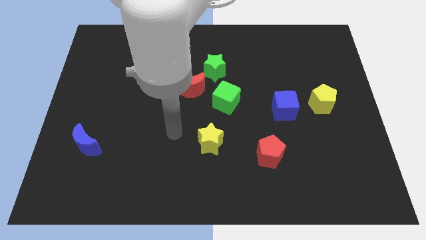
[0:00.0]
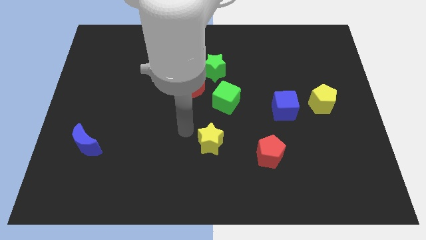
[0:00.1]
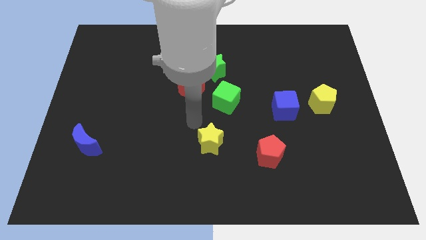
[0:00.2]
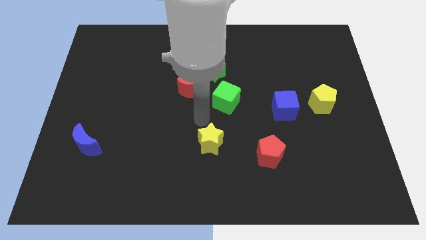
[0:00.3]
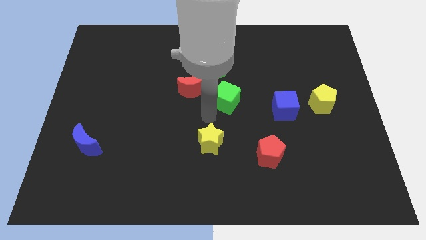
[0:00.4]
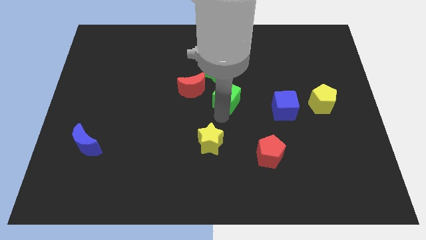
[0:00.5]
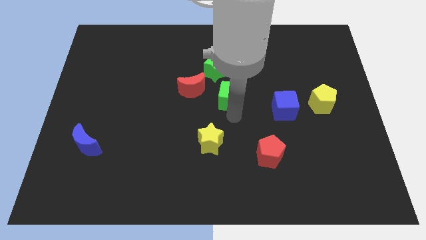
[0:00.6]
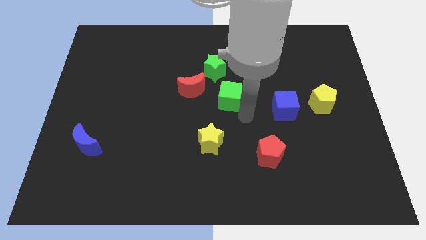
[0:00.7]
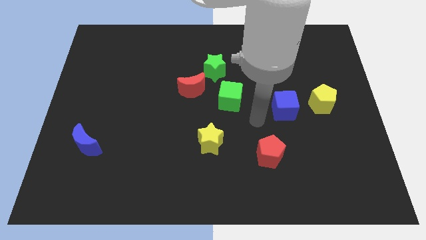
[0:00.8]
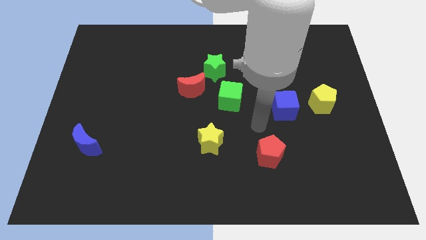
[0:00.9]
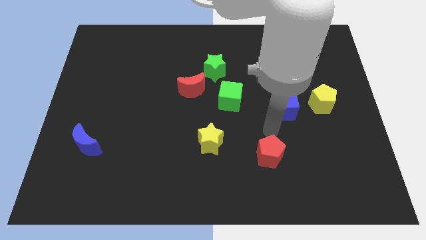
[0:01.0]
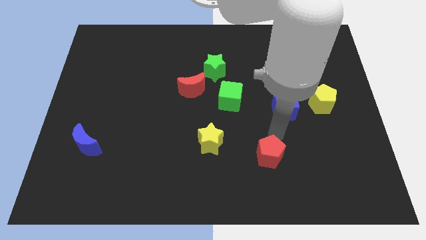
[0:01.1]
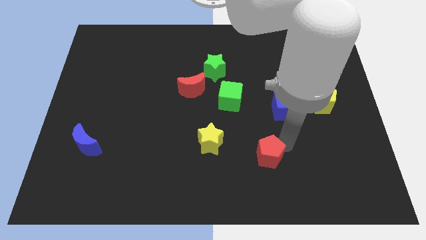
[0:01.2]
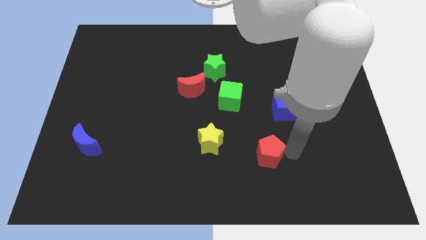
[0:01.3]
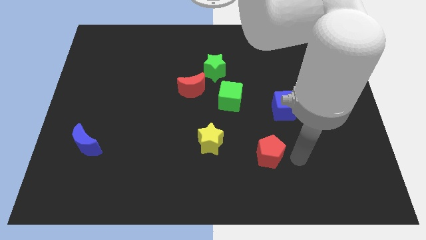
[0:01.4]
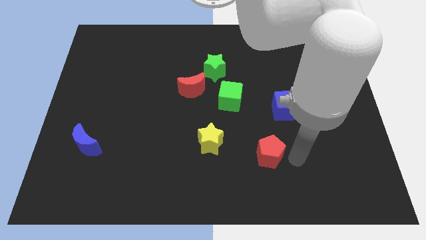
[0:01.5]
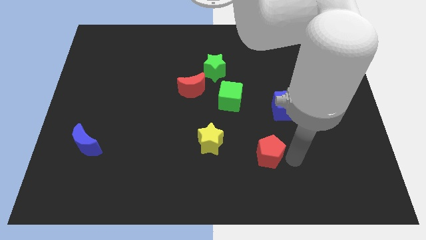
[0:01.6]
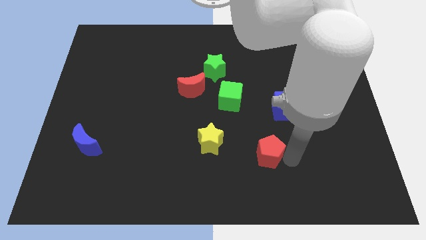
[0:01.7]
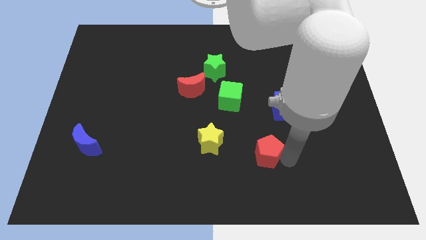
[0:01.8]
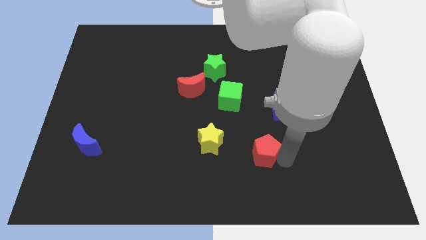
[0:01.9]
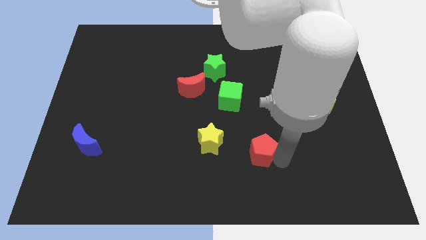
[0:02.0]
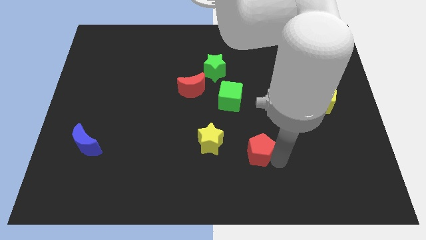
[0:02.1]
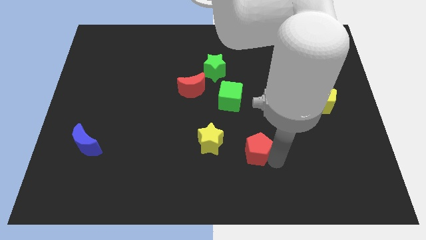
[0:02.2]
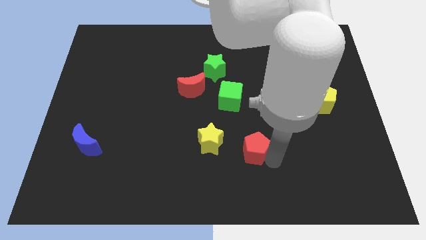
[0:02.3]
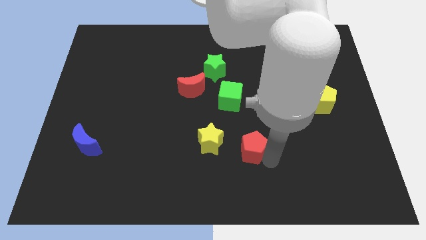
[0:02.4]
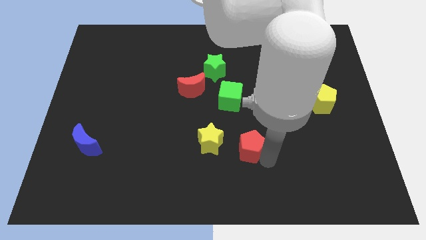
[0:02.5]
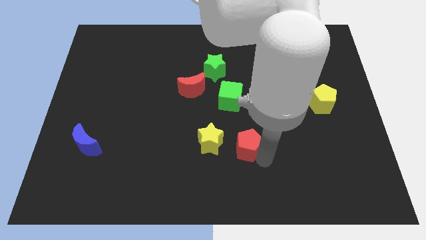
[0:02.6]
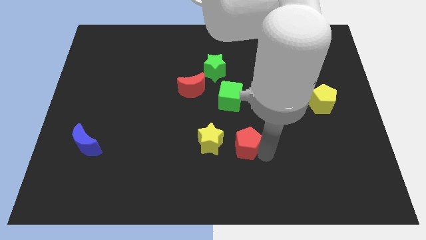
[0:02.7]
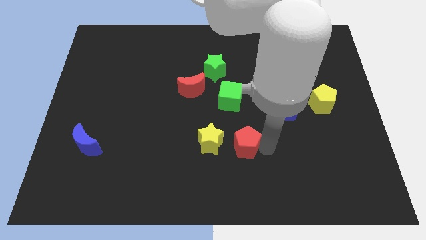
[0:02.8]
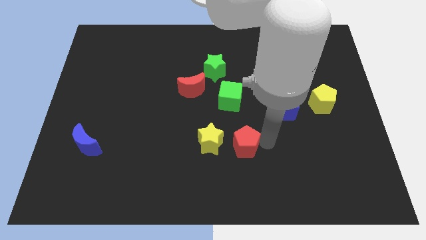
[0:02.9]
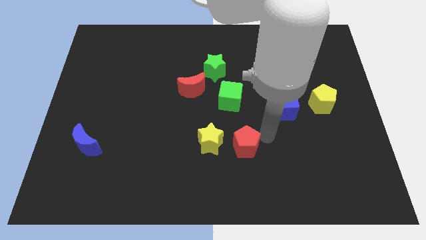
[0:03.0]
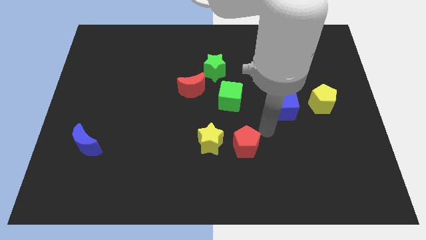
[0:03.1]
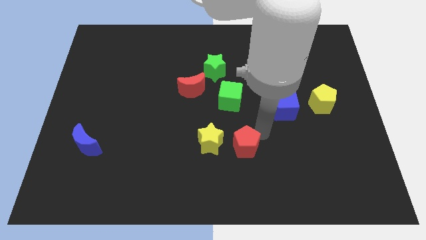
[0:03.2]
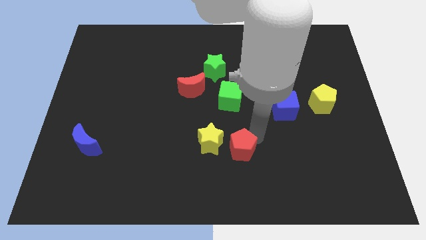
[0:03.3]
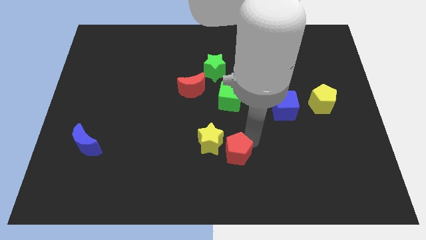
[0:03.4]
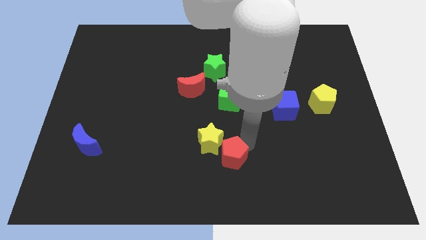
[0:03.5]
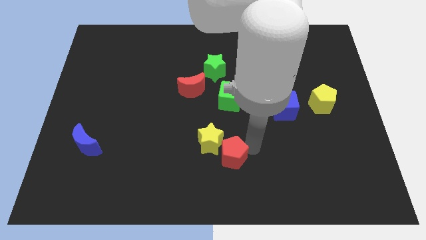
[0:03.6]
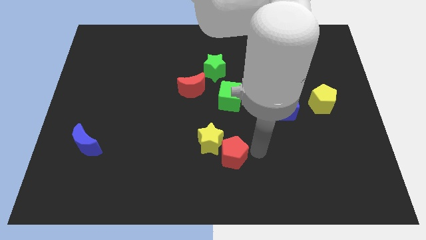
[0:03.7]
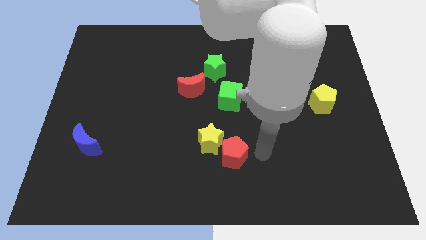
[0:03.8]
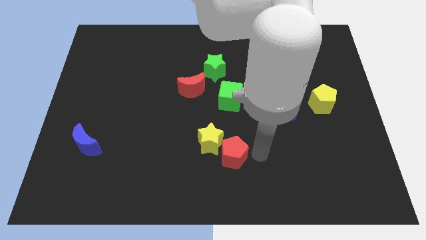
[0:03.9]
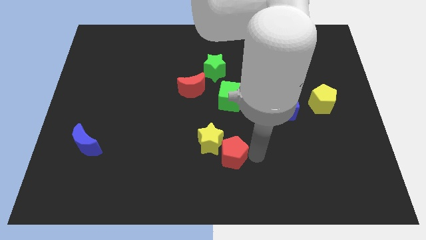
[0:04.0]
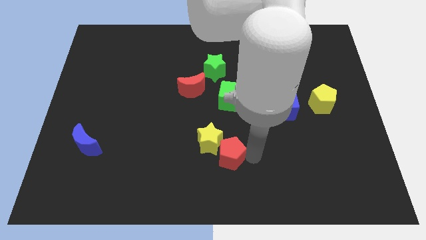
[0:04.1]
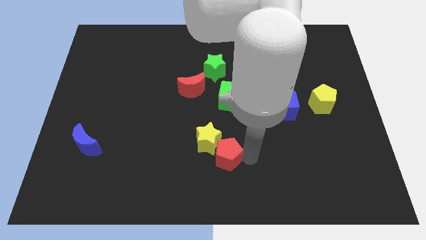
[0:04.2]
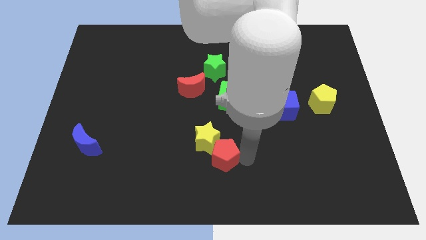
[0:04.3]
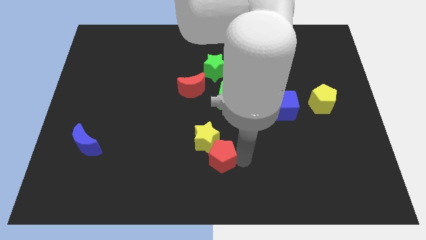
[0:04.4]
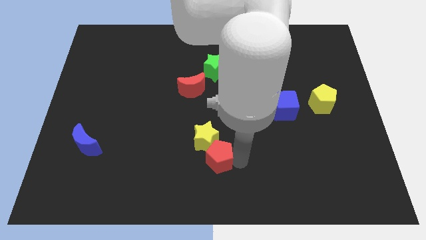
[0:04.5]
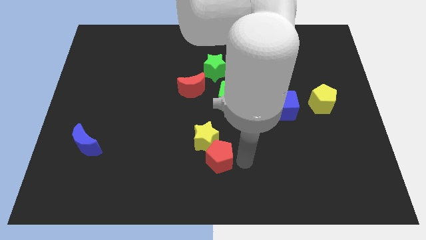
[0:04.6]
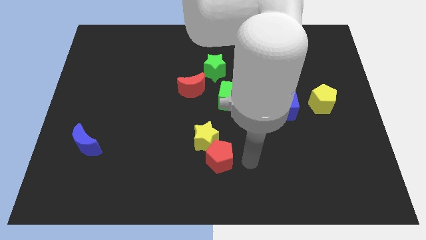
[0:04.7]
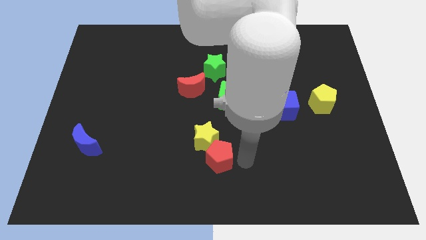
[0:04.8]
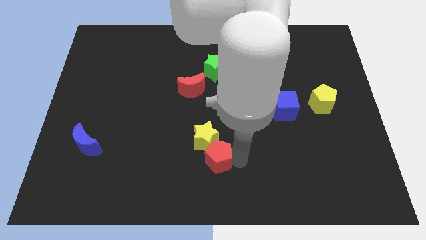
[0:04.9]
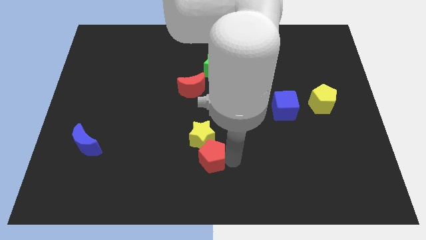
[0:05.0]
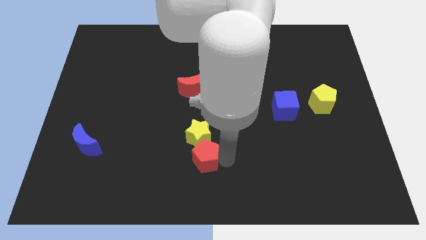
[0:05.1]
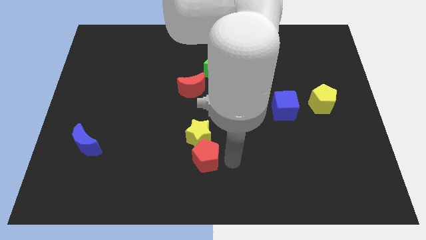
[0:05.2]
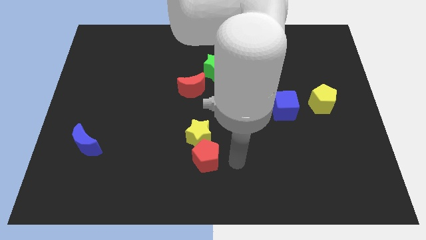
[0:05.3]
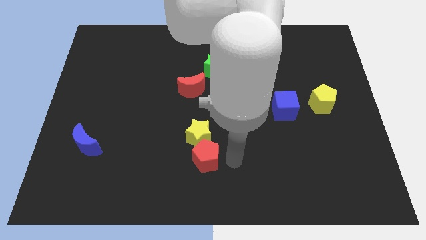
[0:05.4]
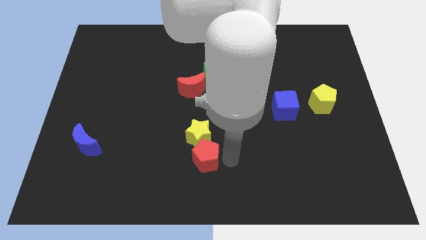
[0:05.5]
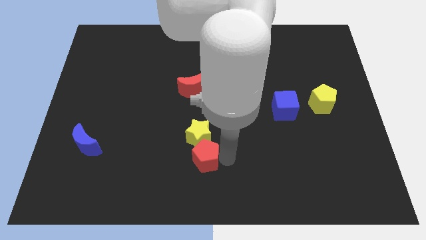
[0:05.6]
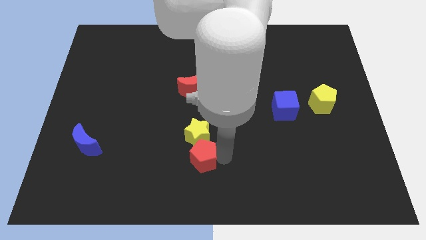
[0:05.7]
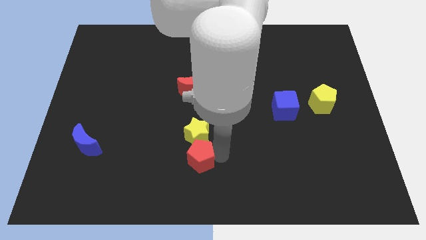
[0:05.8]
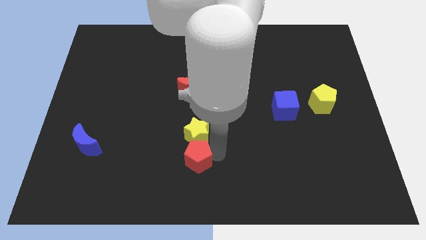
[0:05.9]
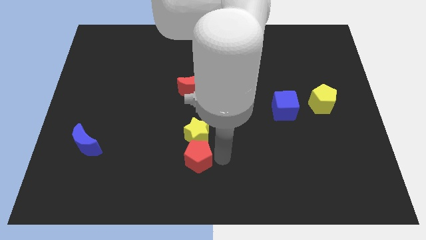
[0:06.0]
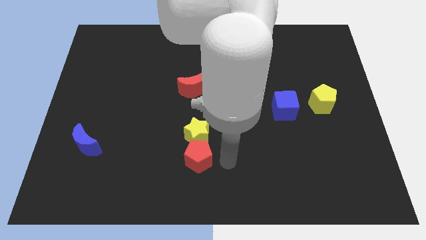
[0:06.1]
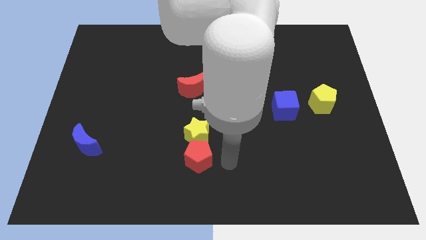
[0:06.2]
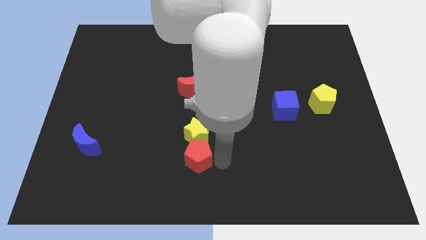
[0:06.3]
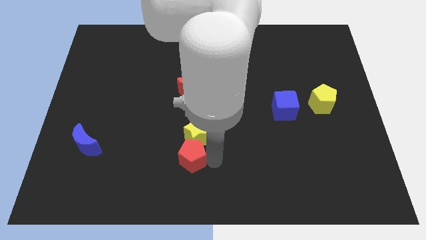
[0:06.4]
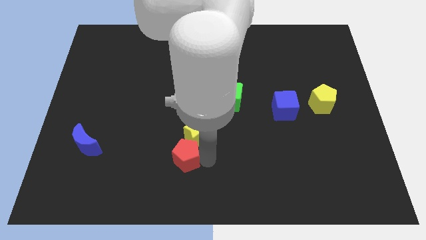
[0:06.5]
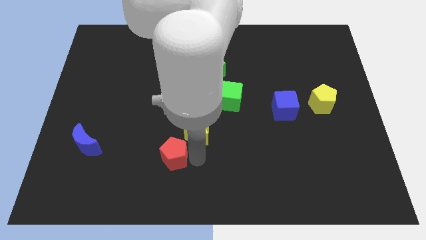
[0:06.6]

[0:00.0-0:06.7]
push the red pentagon to the left

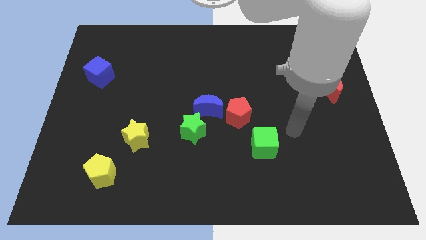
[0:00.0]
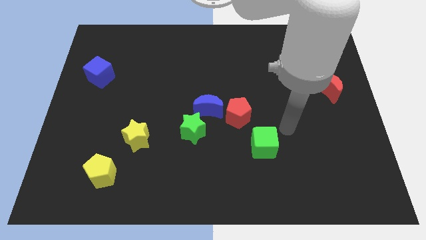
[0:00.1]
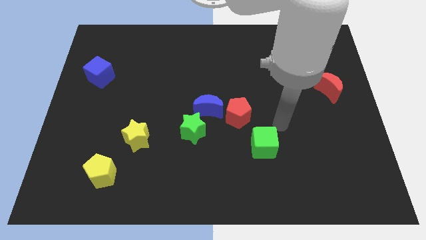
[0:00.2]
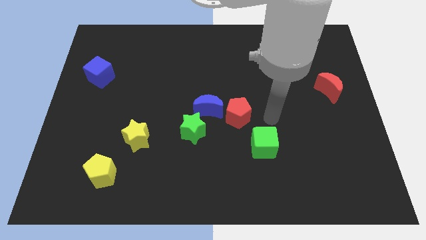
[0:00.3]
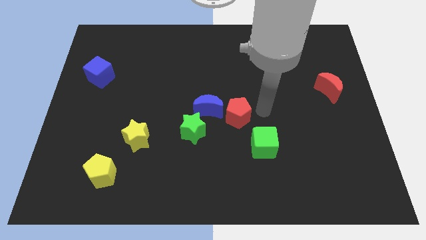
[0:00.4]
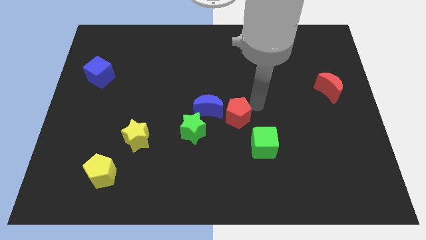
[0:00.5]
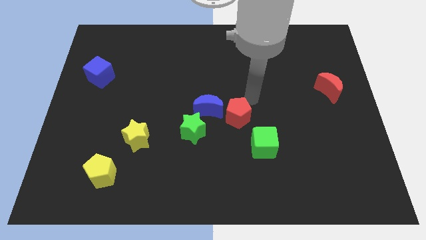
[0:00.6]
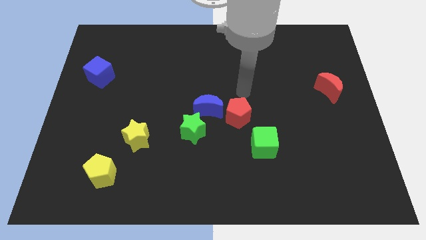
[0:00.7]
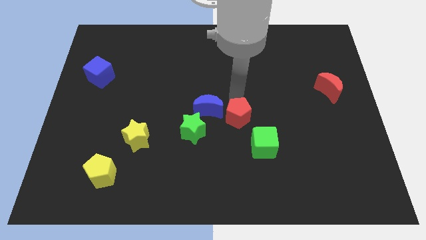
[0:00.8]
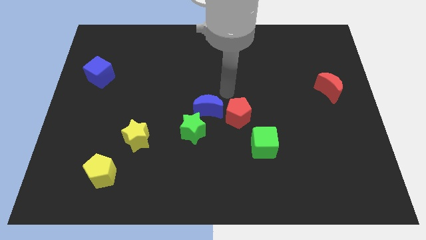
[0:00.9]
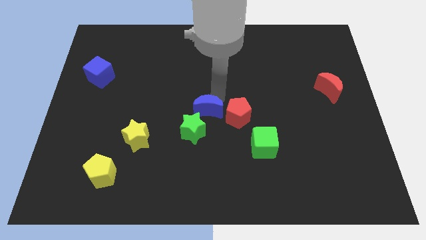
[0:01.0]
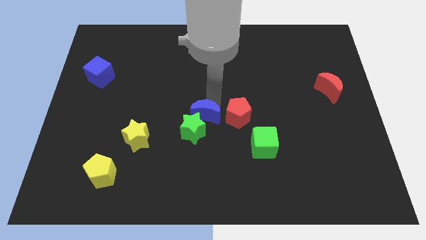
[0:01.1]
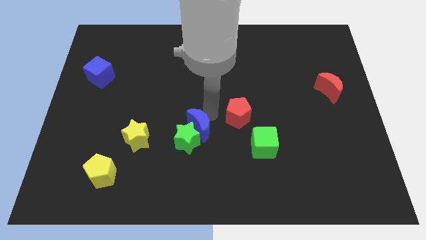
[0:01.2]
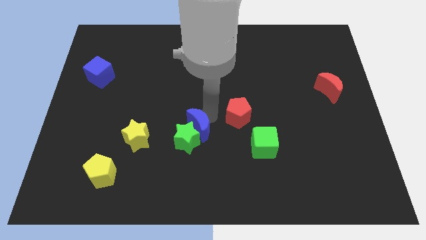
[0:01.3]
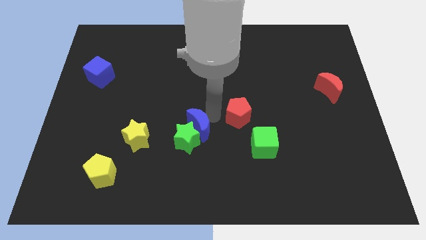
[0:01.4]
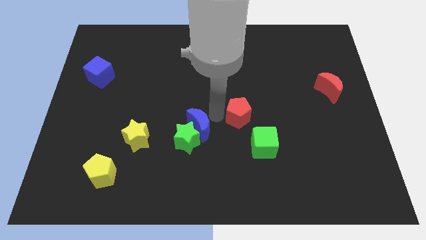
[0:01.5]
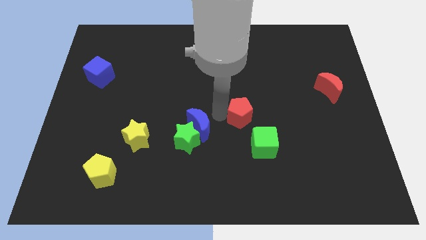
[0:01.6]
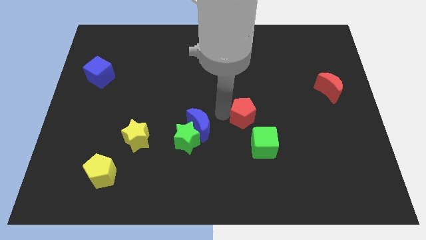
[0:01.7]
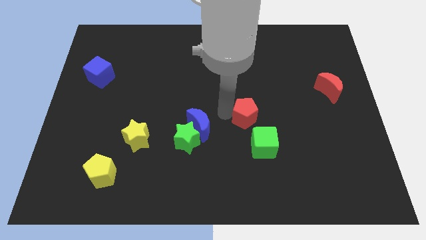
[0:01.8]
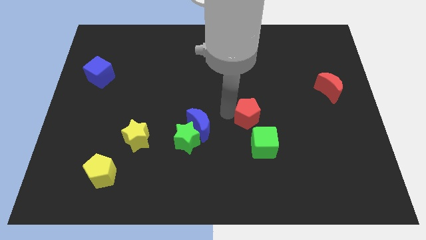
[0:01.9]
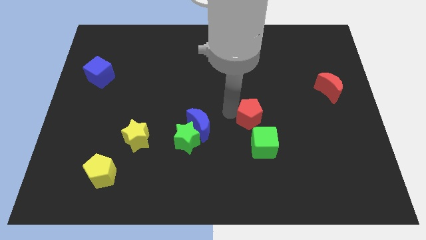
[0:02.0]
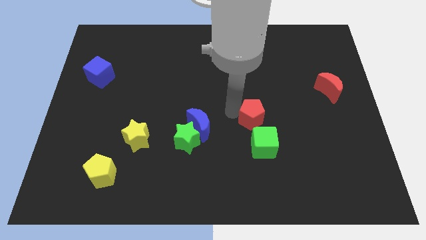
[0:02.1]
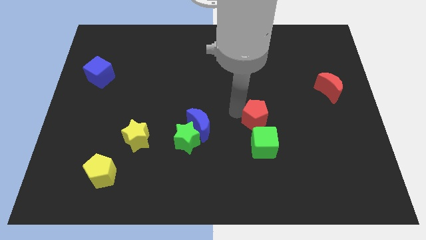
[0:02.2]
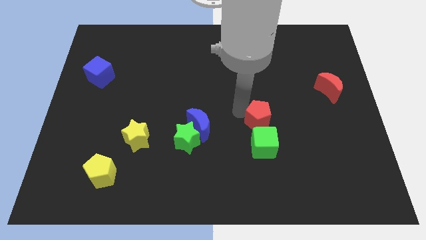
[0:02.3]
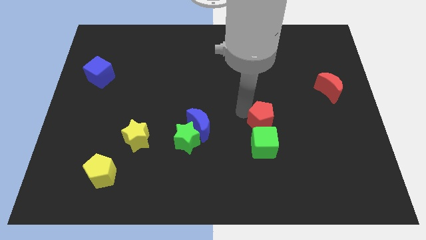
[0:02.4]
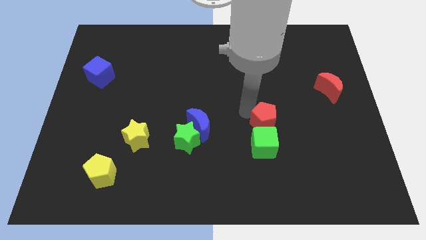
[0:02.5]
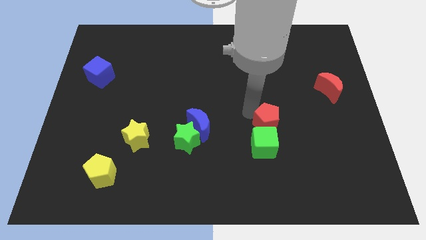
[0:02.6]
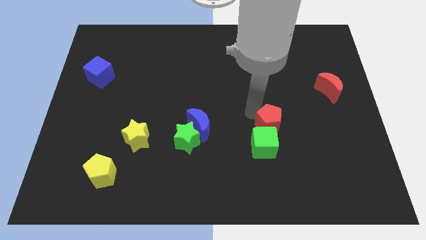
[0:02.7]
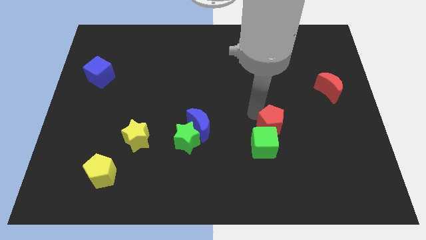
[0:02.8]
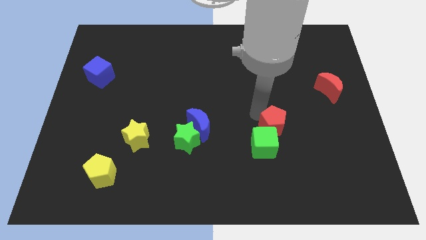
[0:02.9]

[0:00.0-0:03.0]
push the red pentagon a little downwards and then to the right
